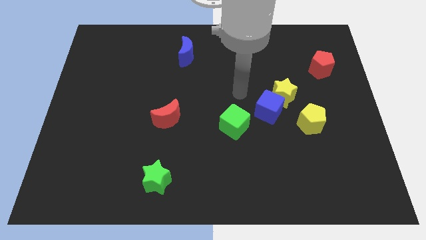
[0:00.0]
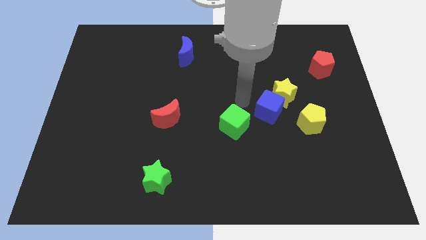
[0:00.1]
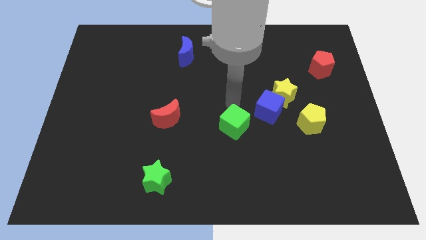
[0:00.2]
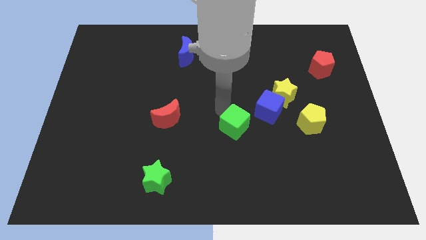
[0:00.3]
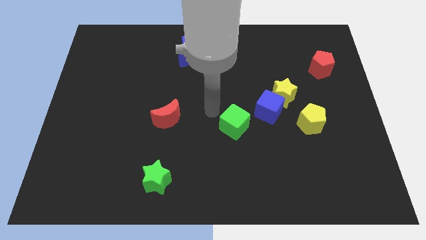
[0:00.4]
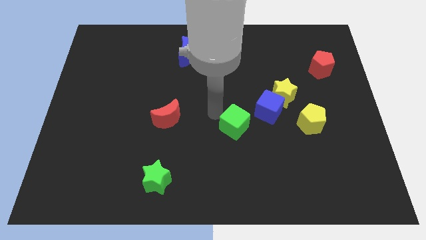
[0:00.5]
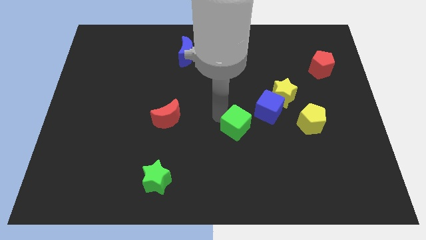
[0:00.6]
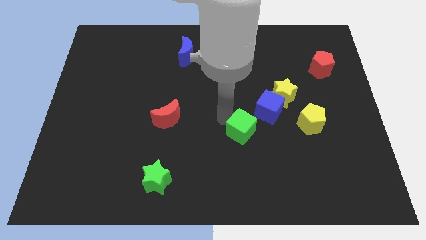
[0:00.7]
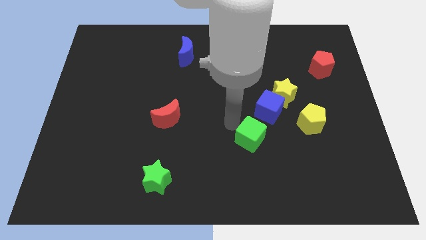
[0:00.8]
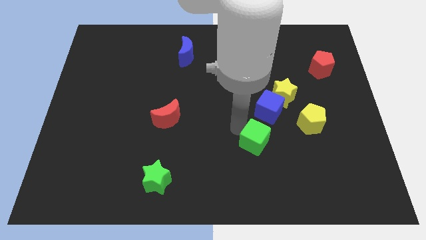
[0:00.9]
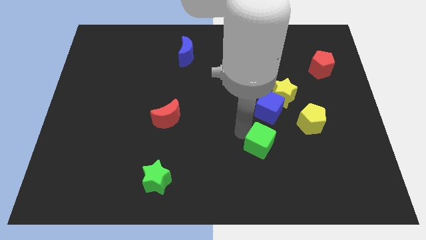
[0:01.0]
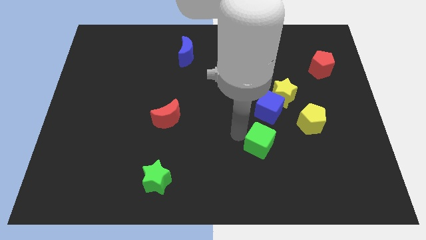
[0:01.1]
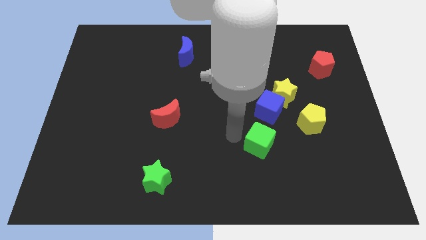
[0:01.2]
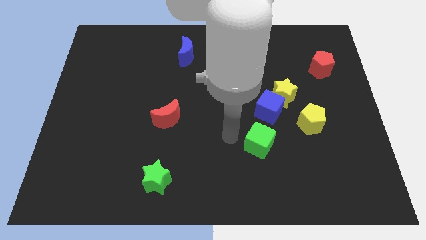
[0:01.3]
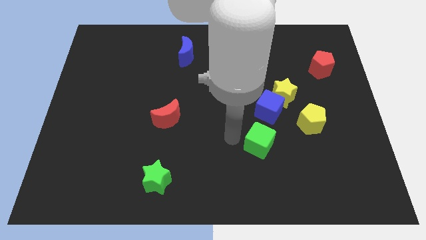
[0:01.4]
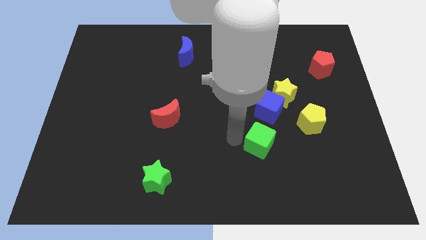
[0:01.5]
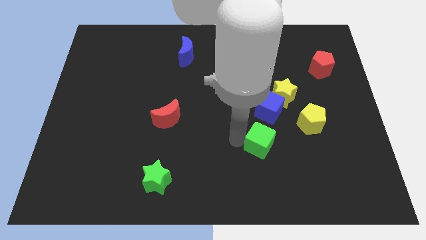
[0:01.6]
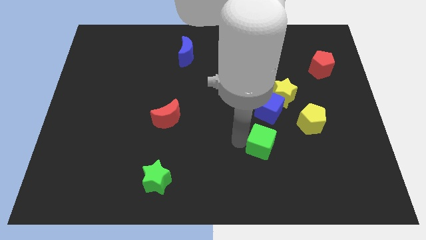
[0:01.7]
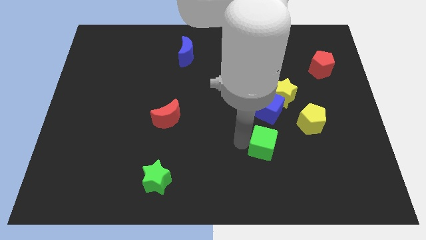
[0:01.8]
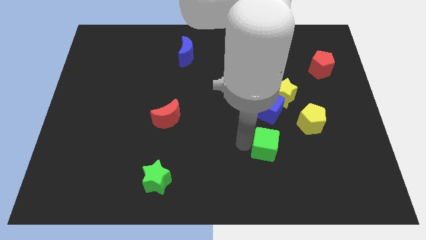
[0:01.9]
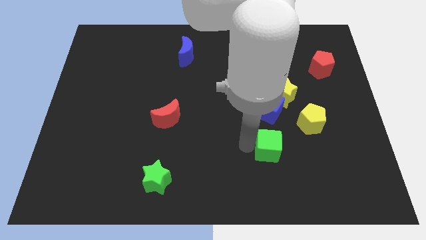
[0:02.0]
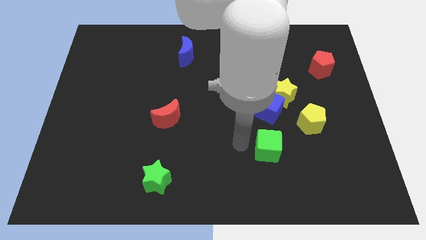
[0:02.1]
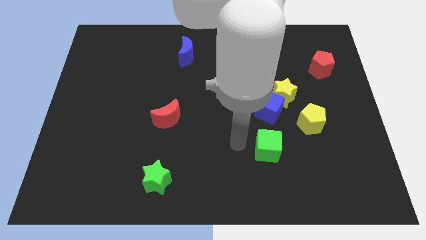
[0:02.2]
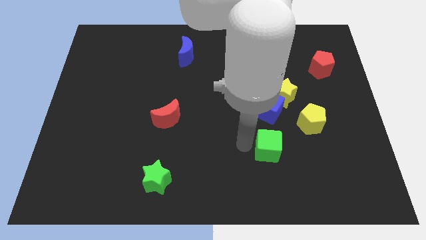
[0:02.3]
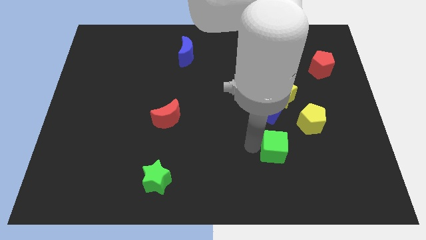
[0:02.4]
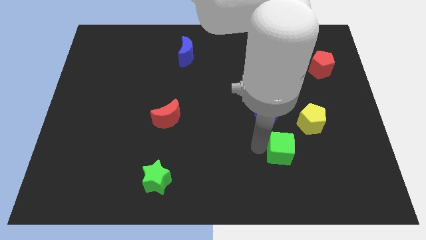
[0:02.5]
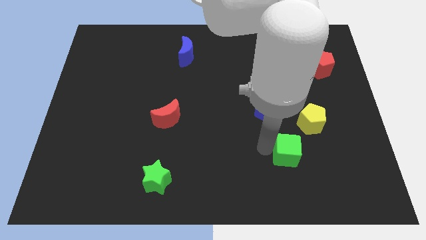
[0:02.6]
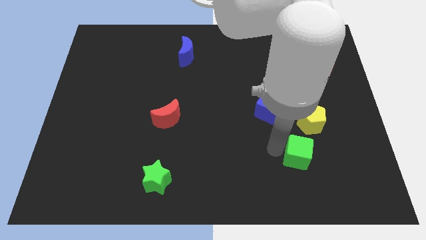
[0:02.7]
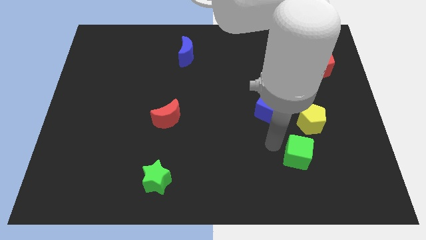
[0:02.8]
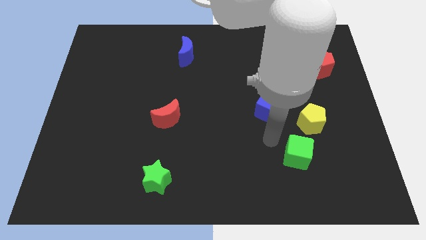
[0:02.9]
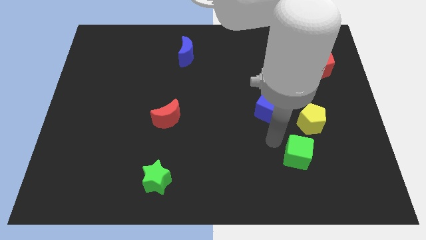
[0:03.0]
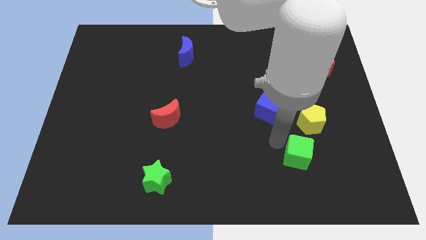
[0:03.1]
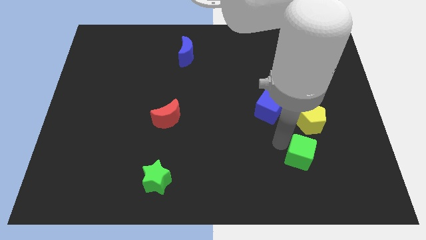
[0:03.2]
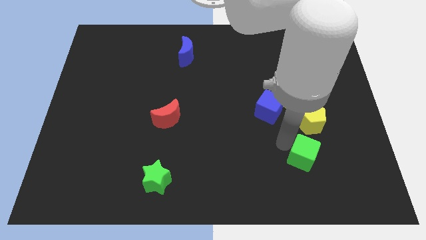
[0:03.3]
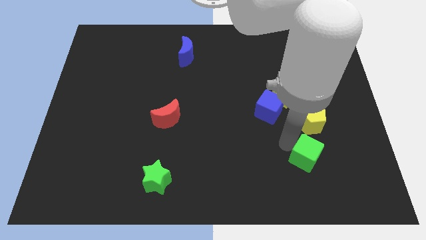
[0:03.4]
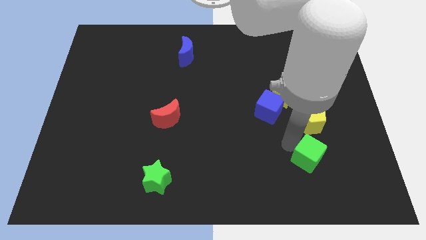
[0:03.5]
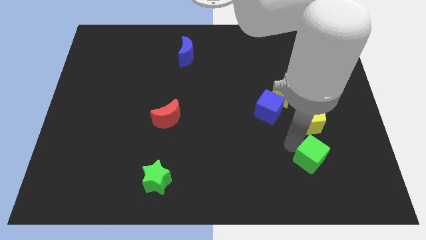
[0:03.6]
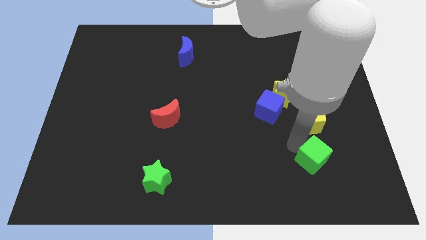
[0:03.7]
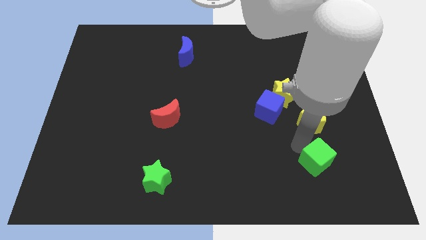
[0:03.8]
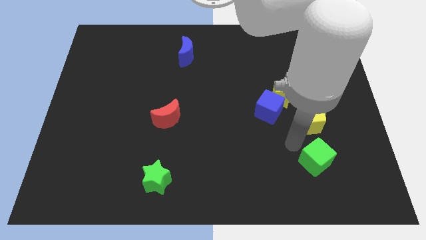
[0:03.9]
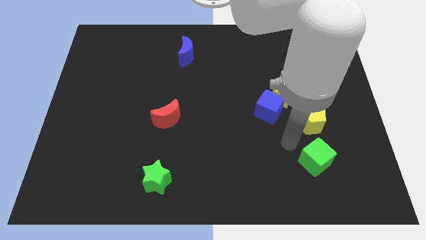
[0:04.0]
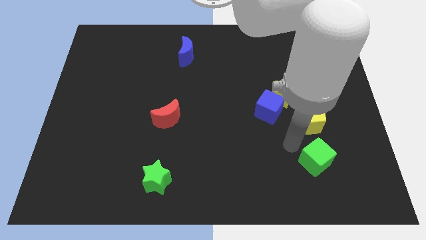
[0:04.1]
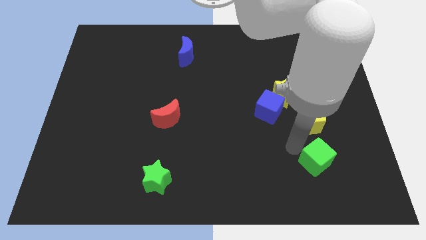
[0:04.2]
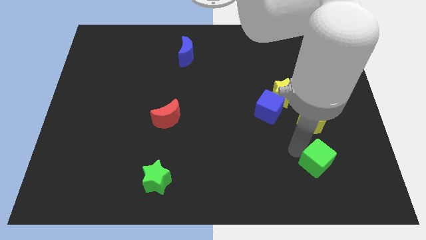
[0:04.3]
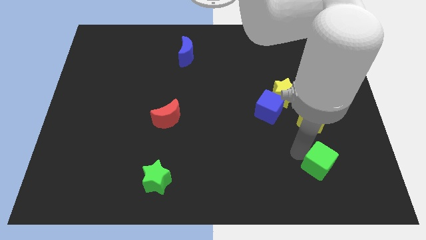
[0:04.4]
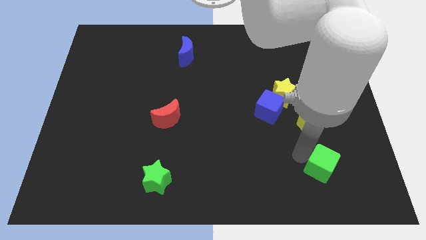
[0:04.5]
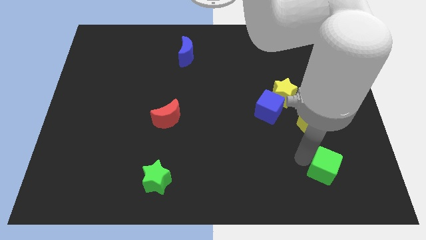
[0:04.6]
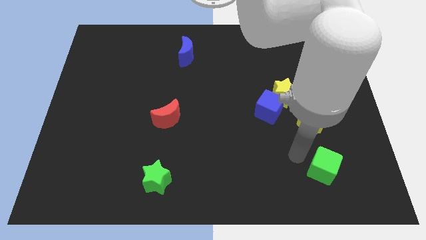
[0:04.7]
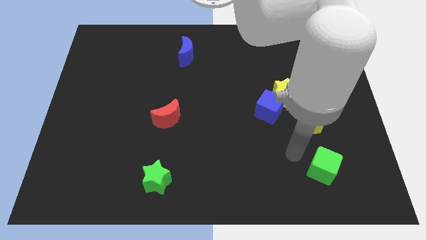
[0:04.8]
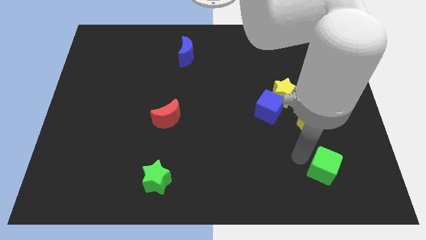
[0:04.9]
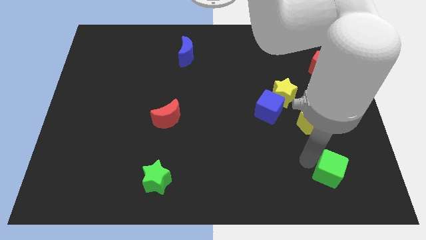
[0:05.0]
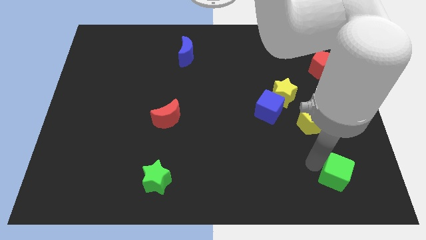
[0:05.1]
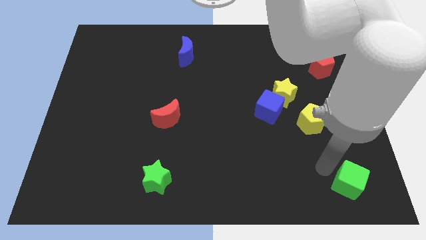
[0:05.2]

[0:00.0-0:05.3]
put the green cube to the bottom right

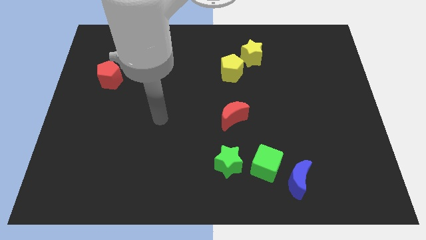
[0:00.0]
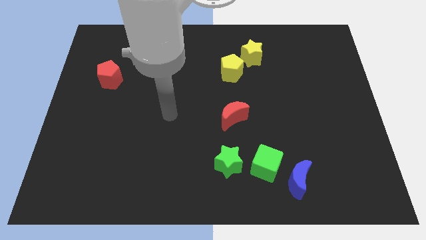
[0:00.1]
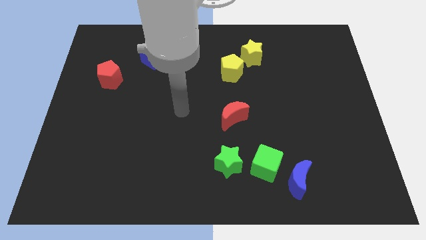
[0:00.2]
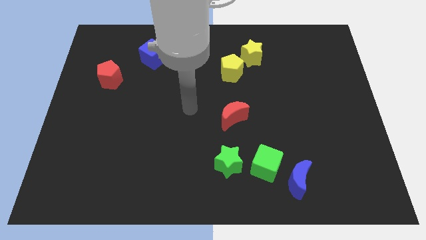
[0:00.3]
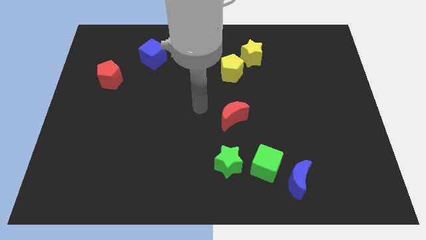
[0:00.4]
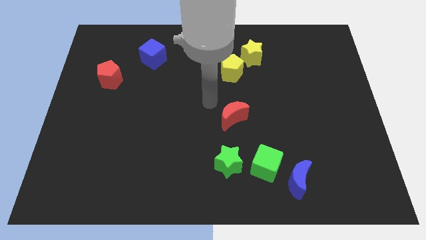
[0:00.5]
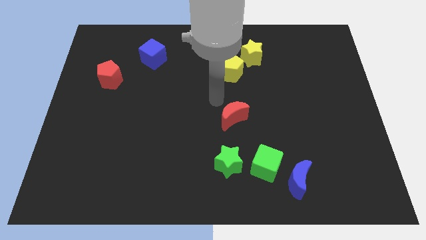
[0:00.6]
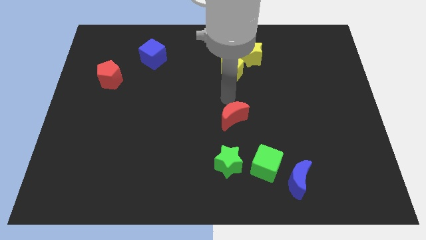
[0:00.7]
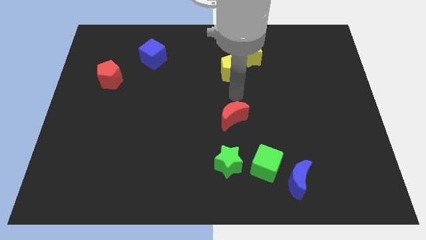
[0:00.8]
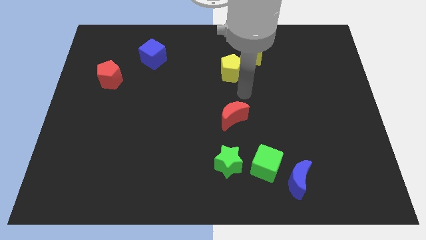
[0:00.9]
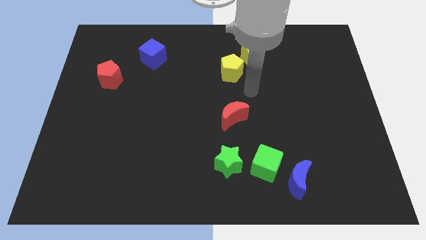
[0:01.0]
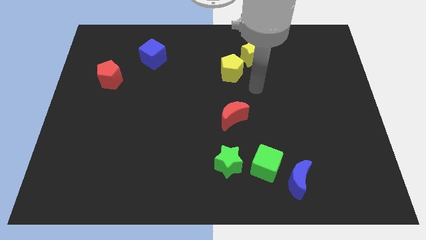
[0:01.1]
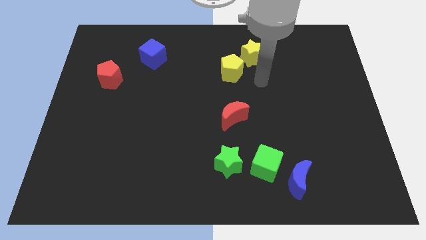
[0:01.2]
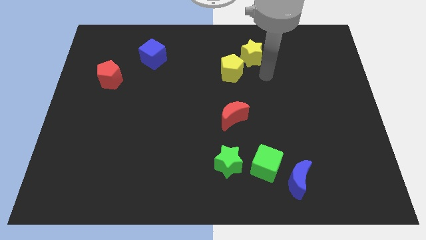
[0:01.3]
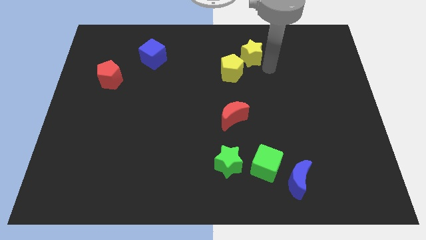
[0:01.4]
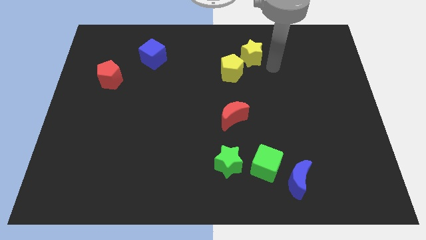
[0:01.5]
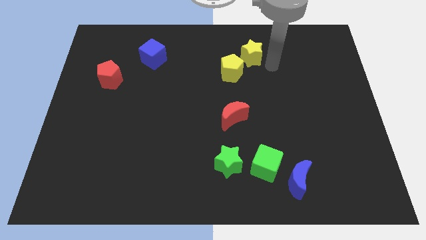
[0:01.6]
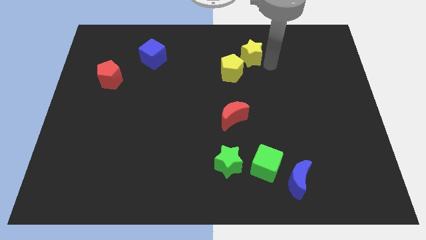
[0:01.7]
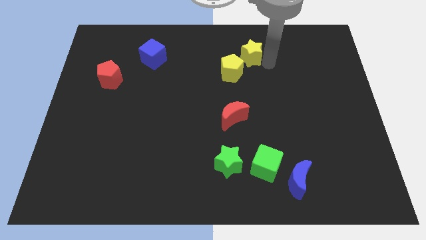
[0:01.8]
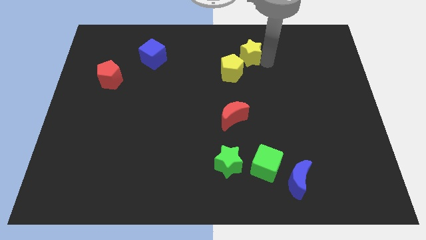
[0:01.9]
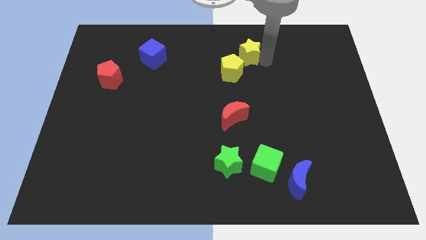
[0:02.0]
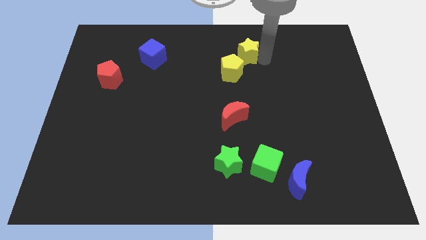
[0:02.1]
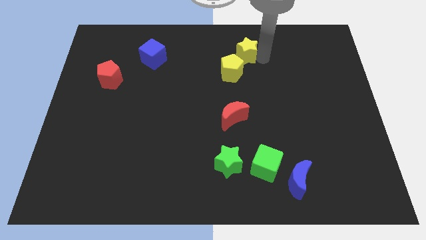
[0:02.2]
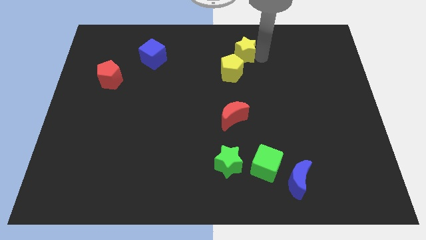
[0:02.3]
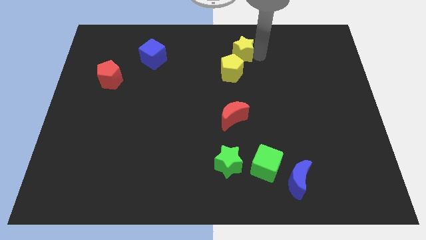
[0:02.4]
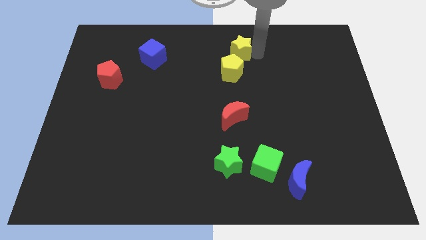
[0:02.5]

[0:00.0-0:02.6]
move the yellow star to the top side

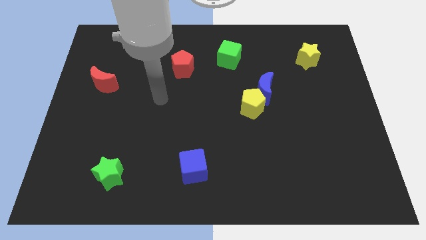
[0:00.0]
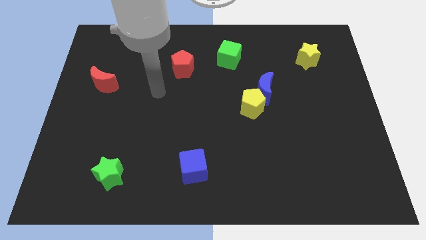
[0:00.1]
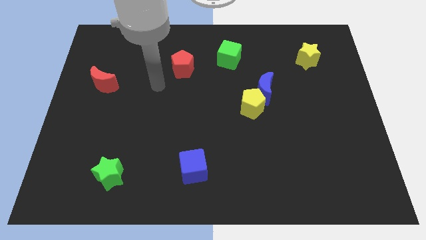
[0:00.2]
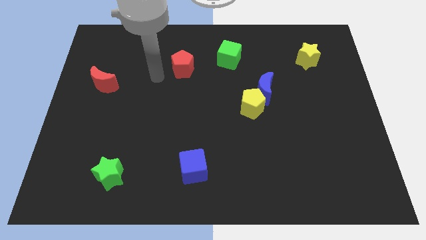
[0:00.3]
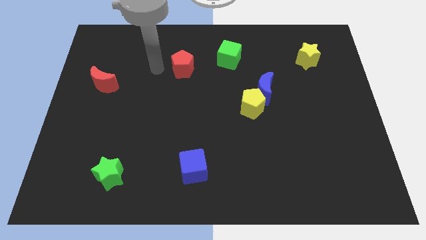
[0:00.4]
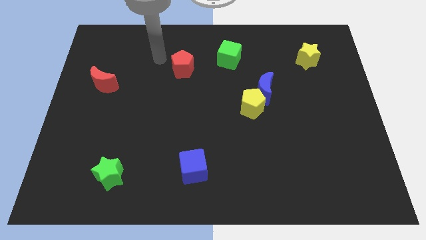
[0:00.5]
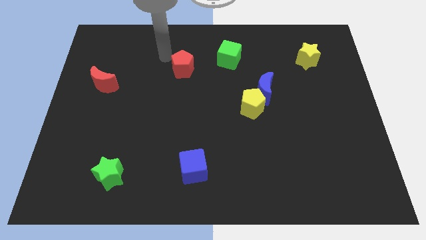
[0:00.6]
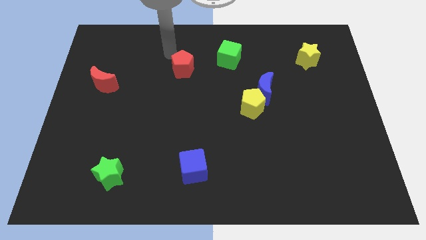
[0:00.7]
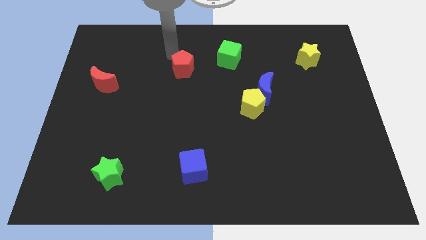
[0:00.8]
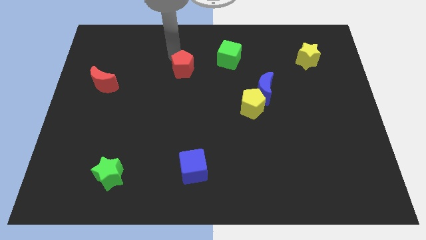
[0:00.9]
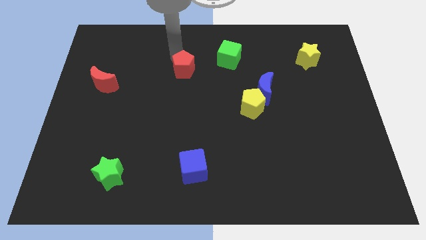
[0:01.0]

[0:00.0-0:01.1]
push the red pentagon to the middle of the board
